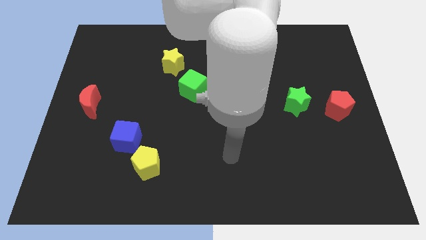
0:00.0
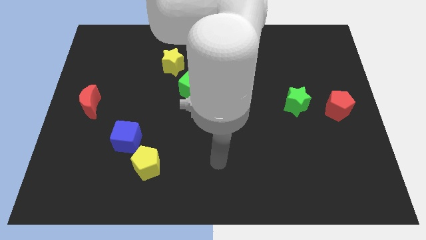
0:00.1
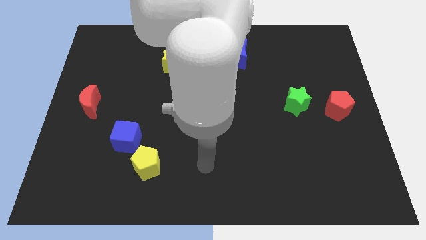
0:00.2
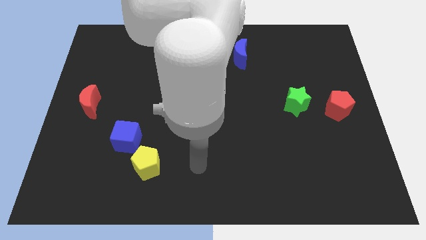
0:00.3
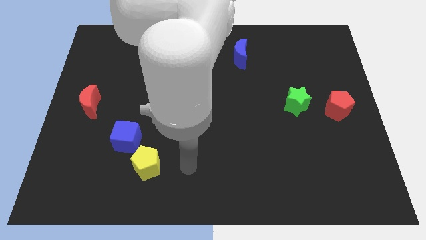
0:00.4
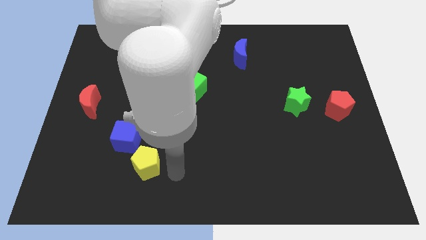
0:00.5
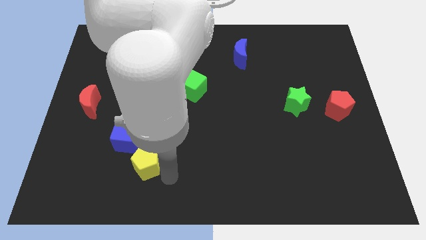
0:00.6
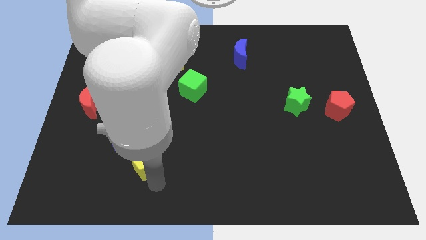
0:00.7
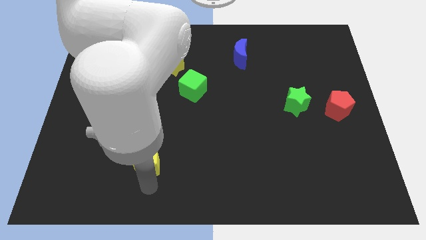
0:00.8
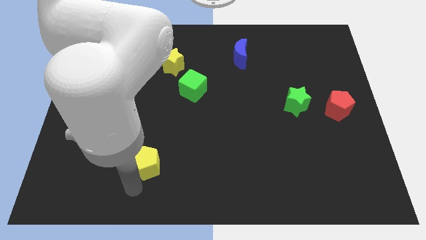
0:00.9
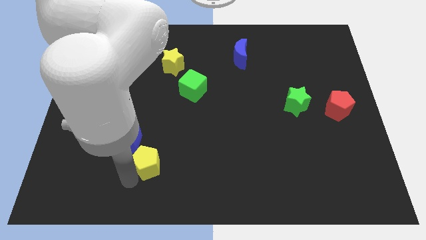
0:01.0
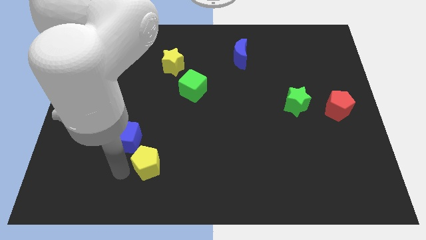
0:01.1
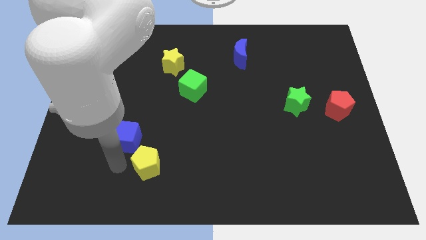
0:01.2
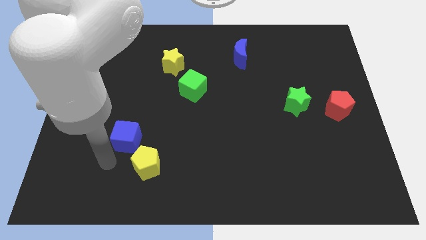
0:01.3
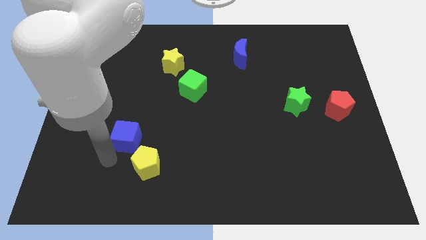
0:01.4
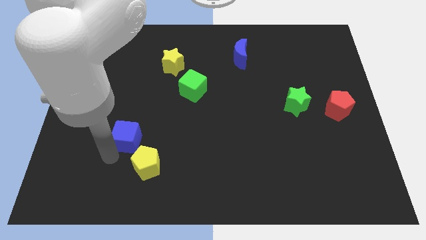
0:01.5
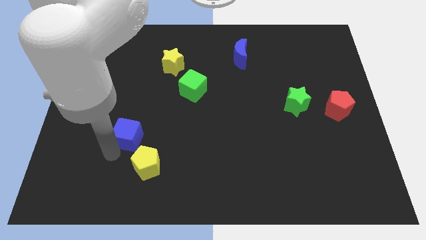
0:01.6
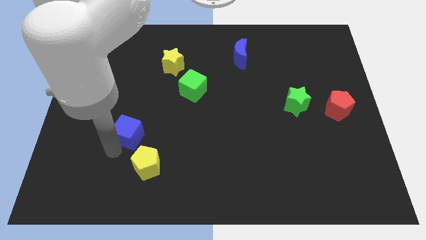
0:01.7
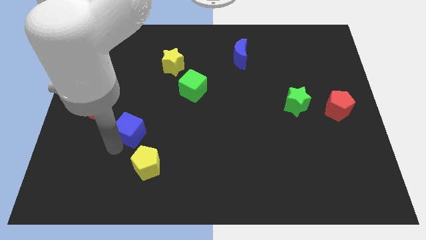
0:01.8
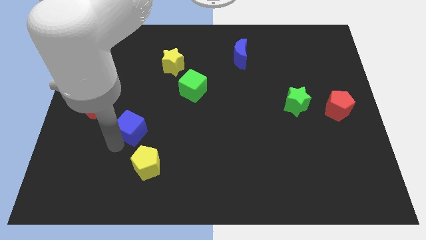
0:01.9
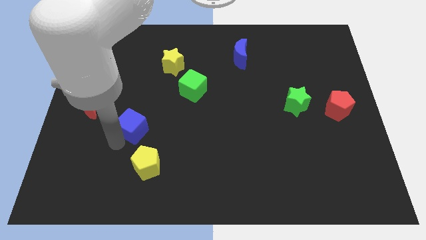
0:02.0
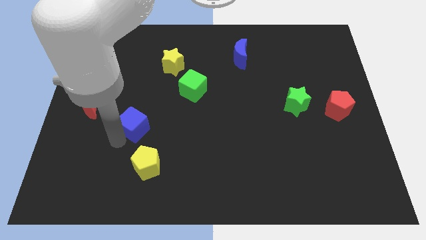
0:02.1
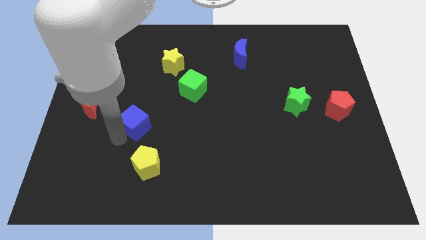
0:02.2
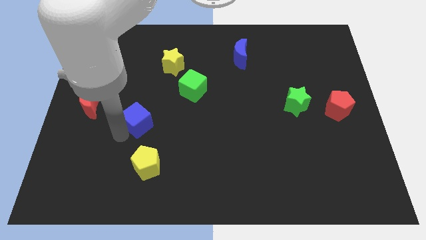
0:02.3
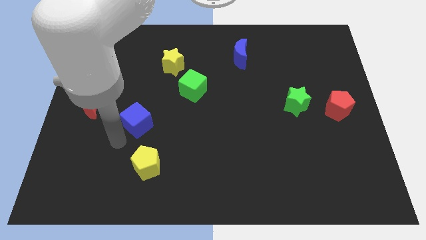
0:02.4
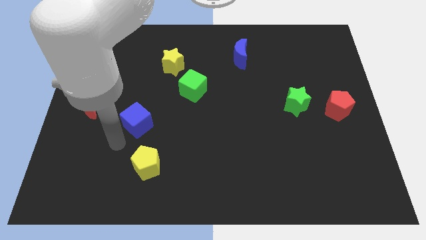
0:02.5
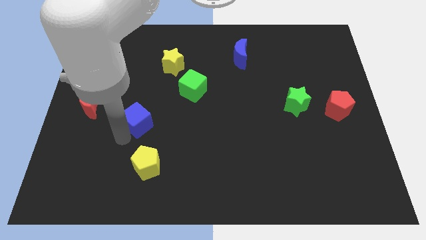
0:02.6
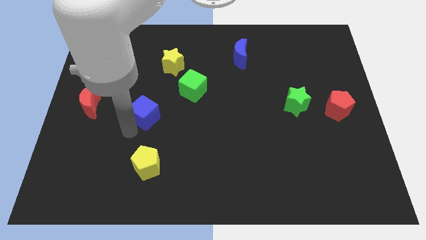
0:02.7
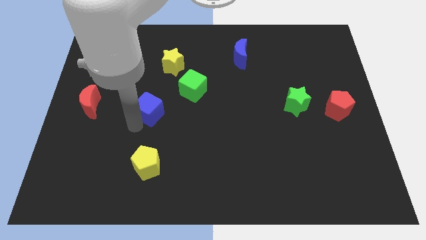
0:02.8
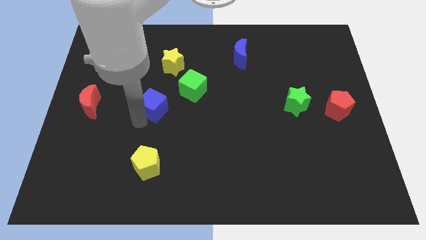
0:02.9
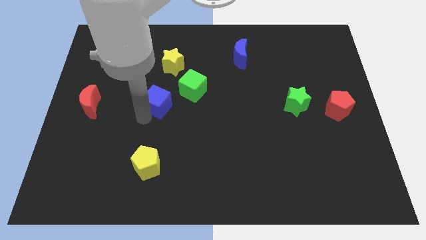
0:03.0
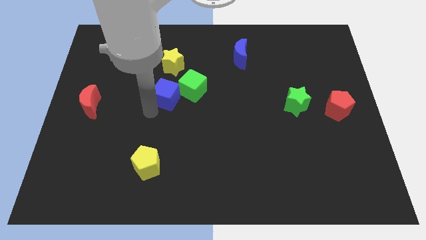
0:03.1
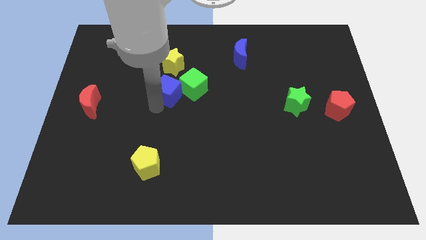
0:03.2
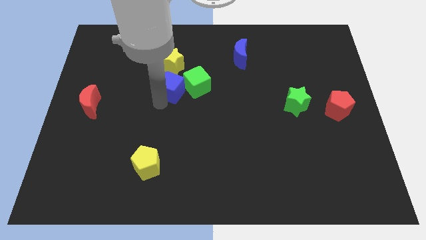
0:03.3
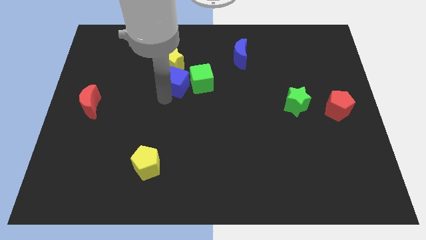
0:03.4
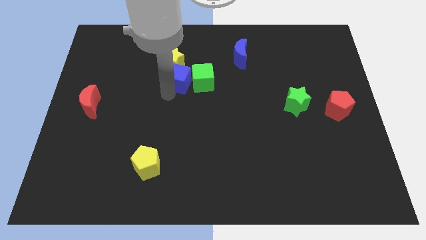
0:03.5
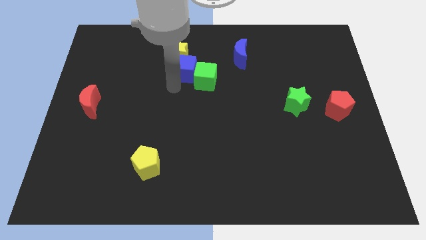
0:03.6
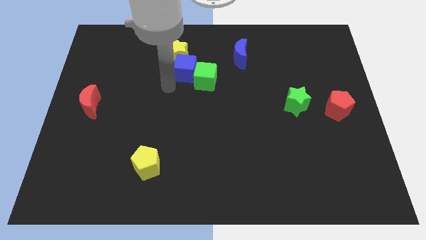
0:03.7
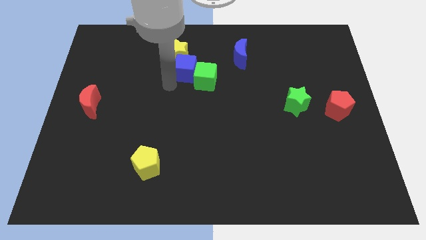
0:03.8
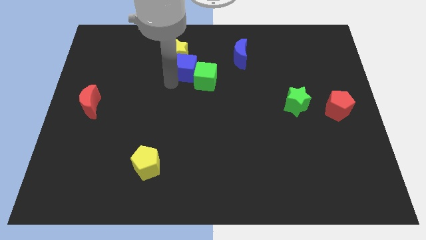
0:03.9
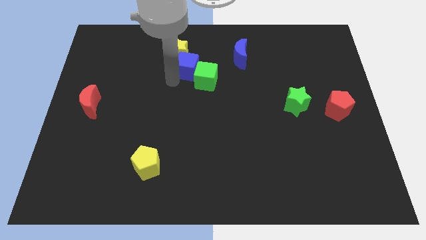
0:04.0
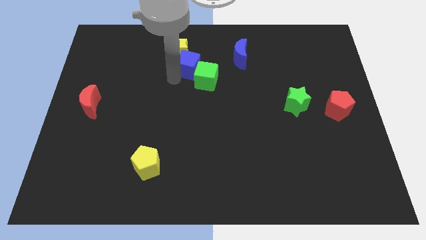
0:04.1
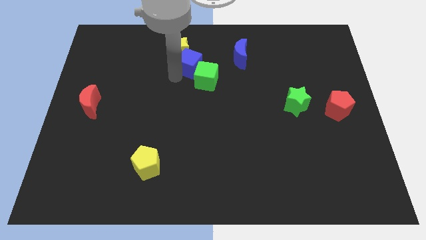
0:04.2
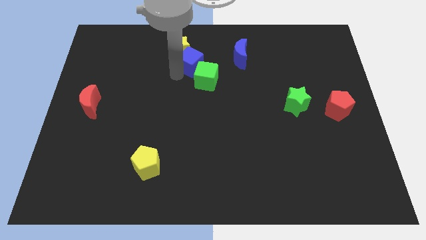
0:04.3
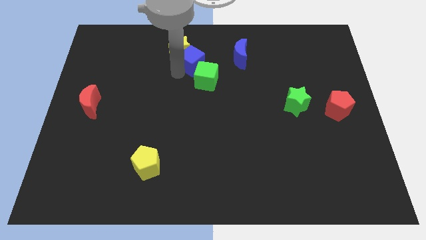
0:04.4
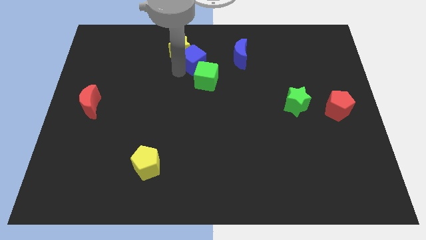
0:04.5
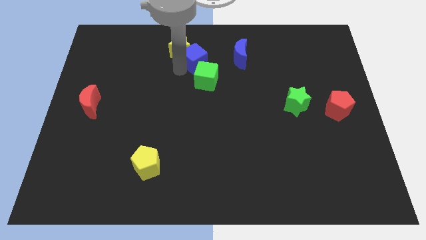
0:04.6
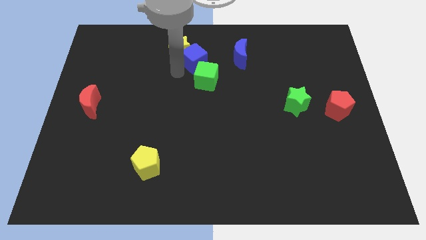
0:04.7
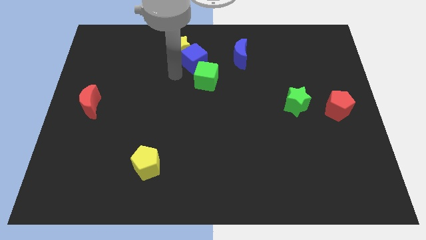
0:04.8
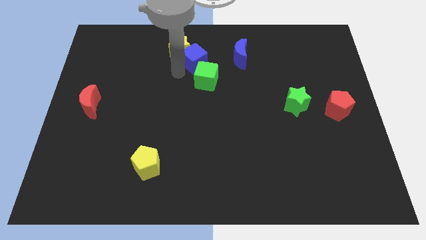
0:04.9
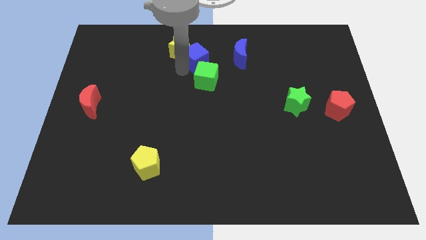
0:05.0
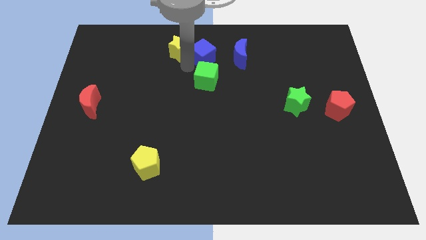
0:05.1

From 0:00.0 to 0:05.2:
put the blue cube to the top side

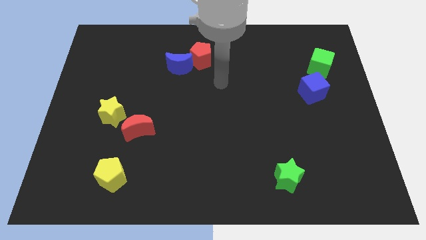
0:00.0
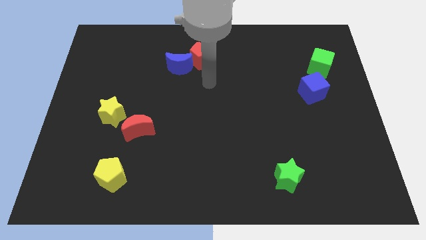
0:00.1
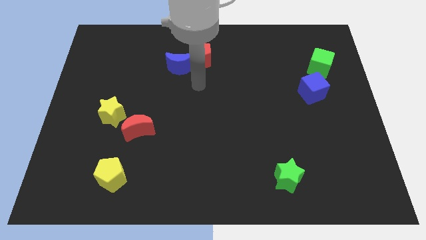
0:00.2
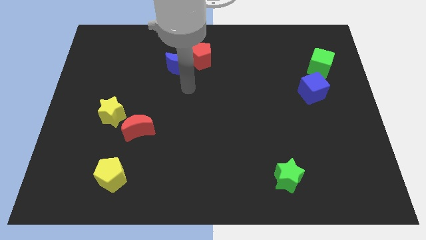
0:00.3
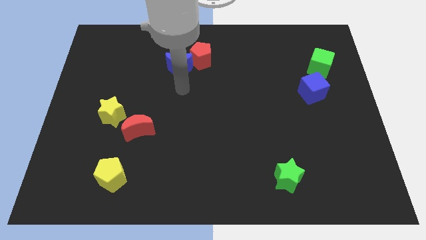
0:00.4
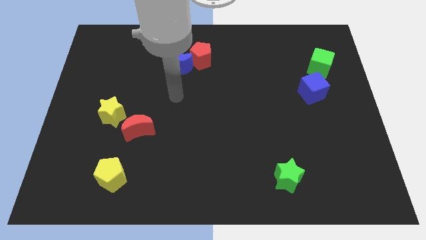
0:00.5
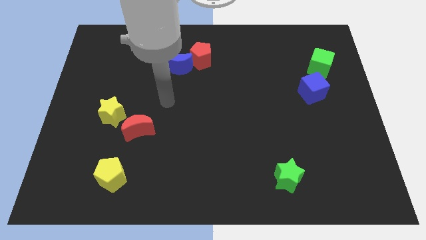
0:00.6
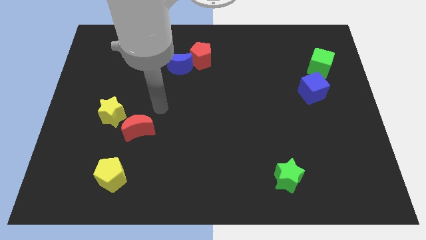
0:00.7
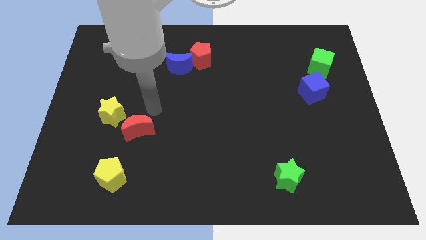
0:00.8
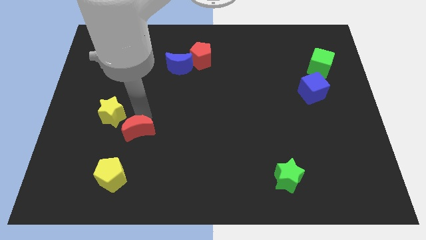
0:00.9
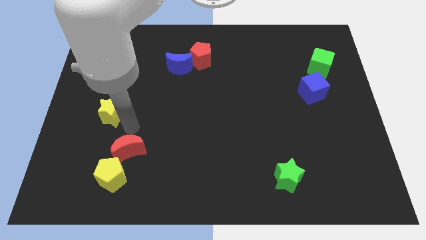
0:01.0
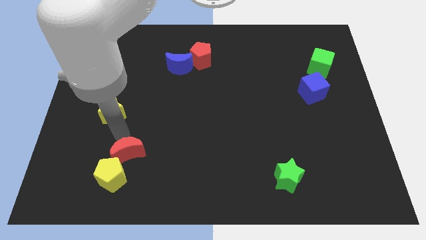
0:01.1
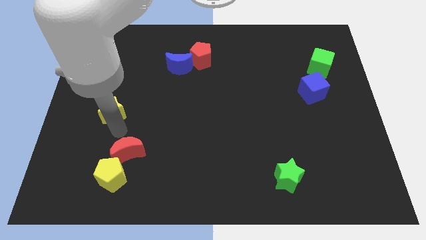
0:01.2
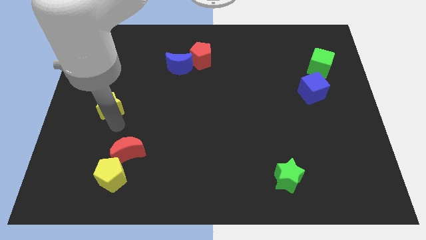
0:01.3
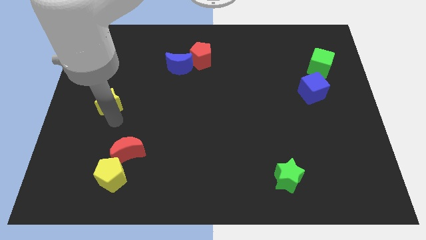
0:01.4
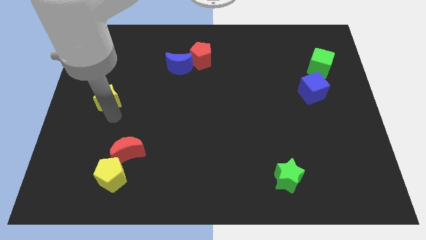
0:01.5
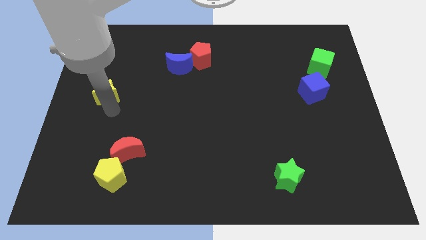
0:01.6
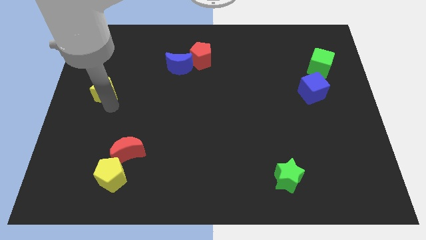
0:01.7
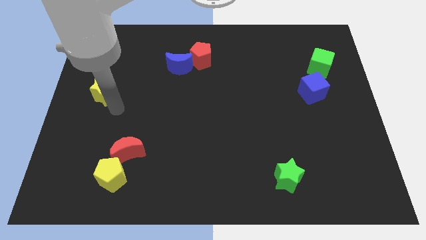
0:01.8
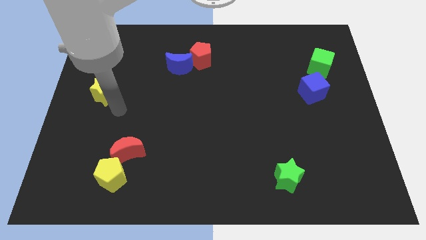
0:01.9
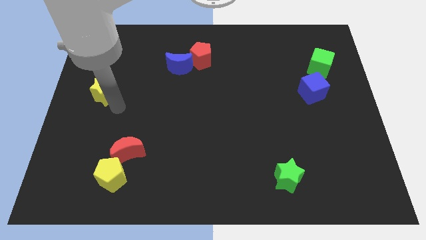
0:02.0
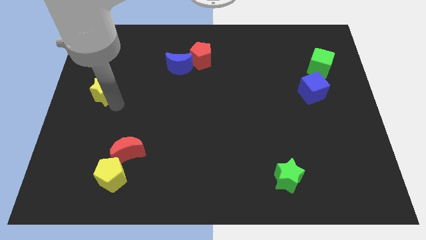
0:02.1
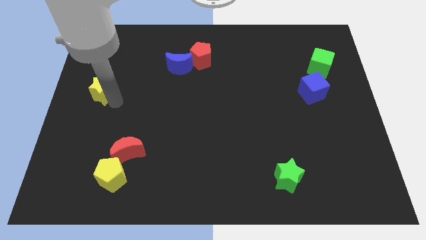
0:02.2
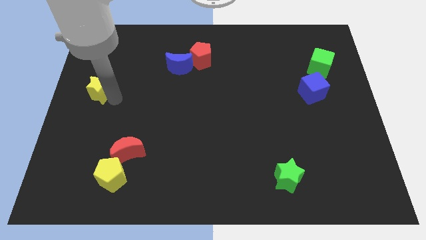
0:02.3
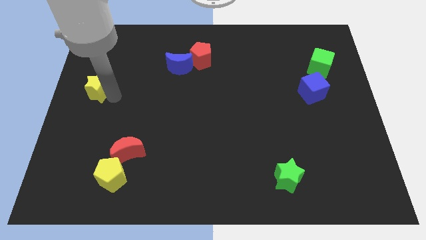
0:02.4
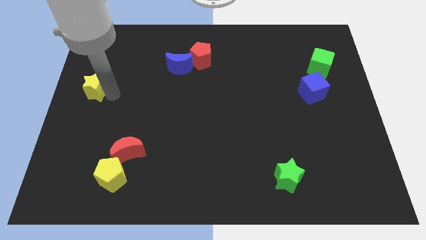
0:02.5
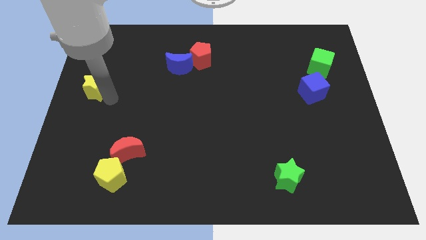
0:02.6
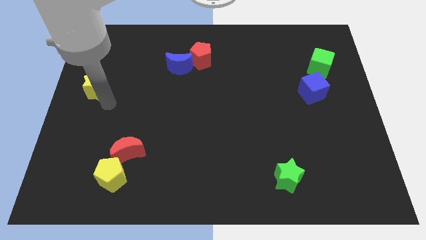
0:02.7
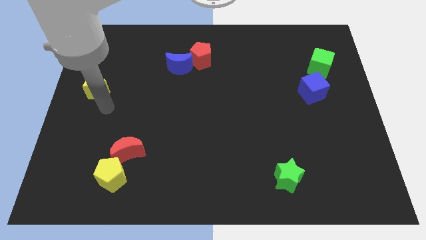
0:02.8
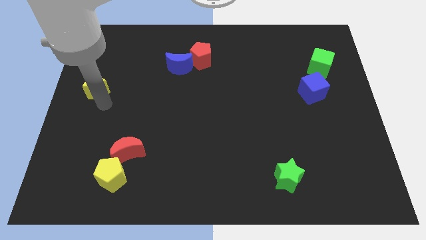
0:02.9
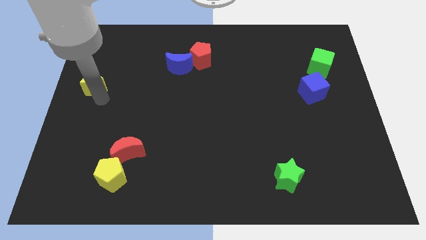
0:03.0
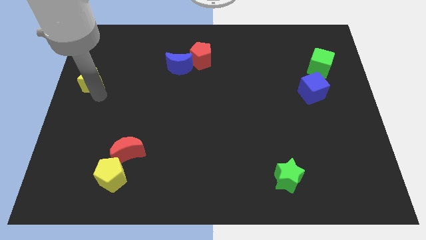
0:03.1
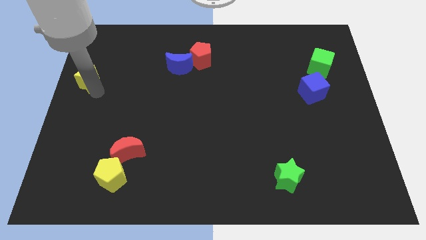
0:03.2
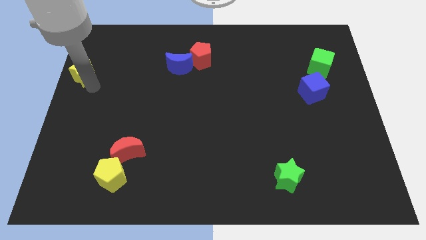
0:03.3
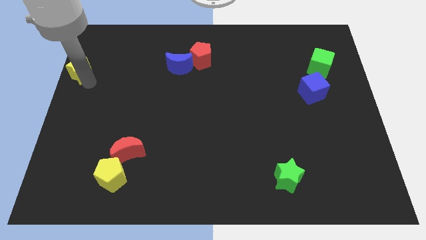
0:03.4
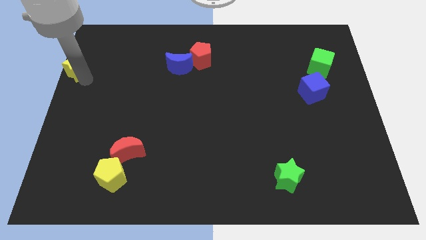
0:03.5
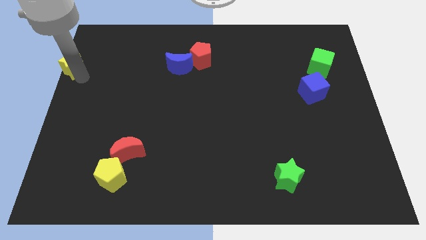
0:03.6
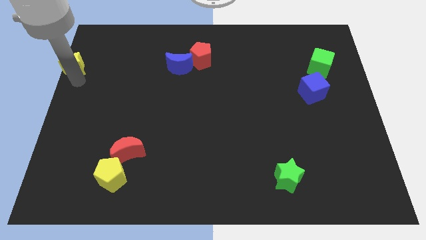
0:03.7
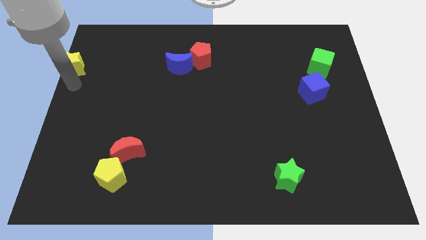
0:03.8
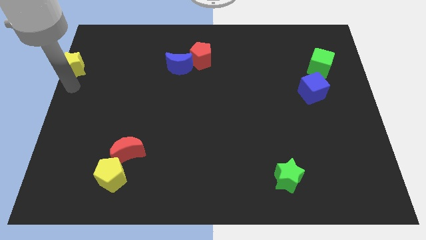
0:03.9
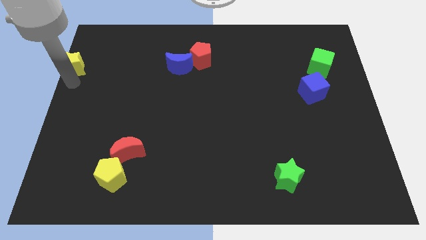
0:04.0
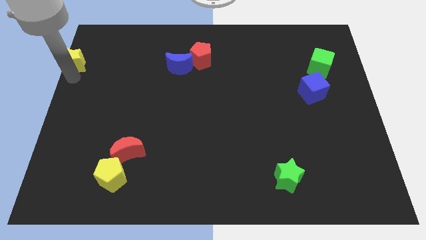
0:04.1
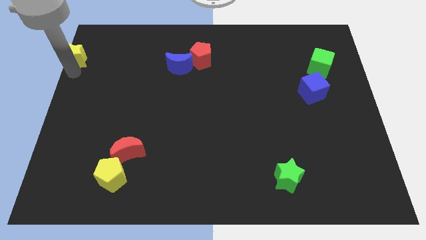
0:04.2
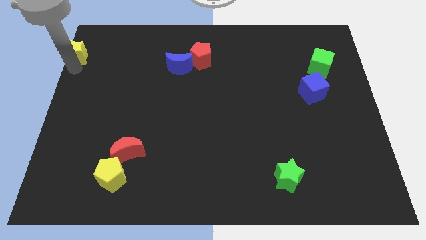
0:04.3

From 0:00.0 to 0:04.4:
slide the yellow star to the top left
